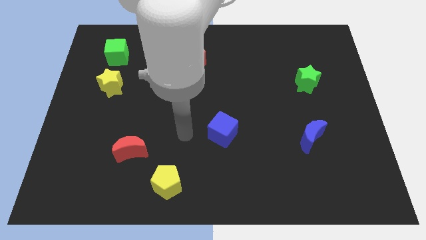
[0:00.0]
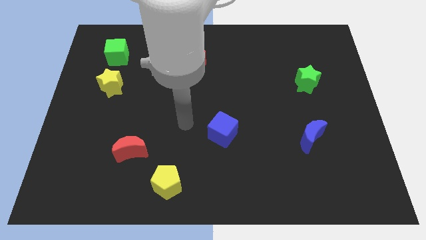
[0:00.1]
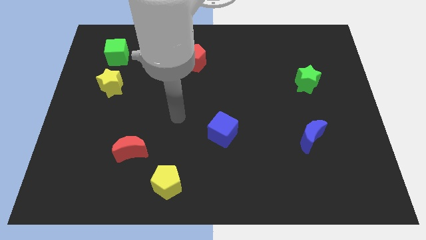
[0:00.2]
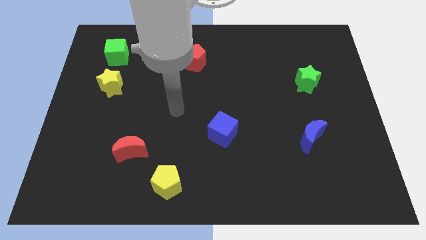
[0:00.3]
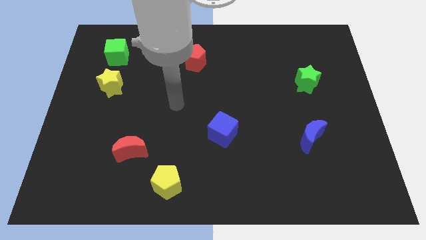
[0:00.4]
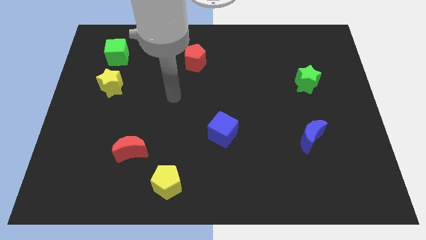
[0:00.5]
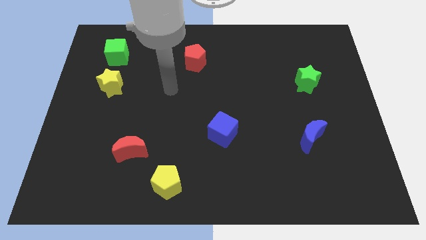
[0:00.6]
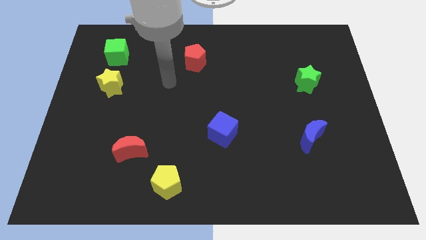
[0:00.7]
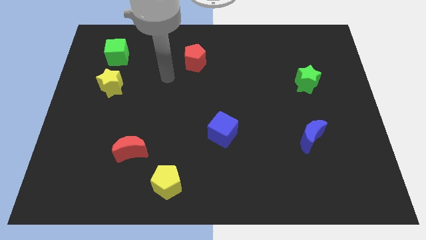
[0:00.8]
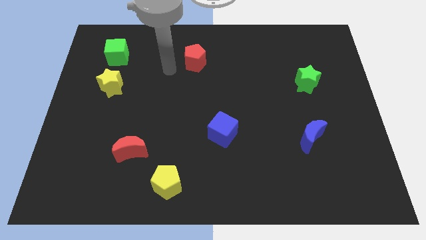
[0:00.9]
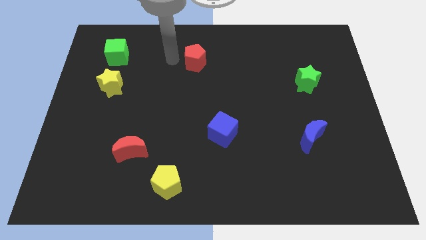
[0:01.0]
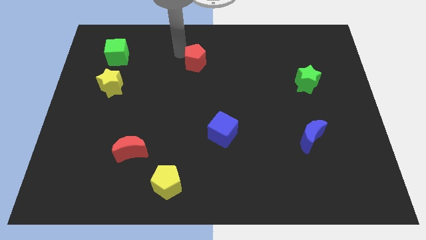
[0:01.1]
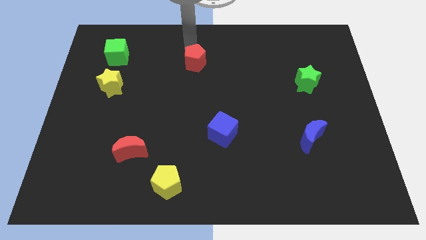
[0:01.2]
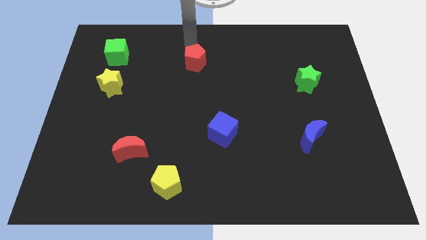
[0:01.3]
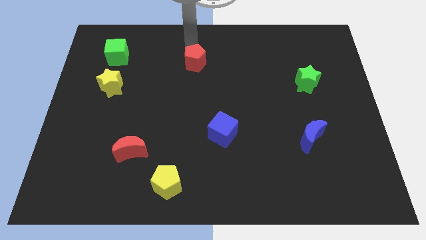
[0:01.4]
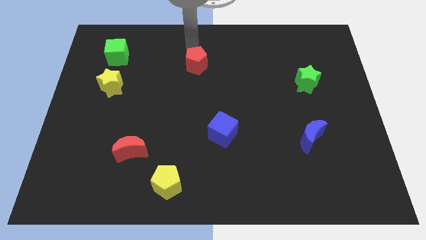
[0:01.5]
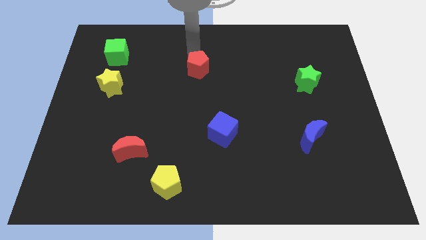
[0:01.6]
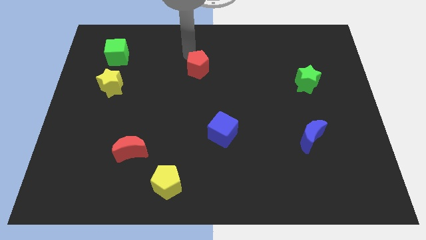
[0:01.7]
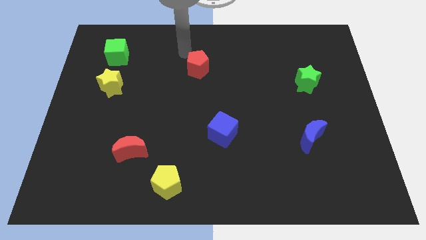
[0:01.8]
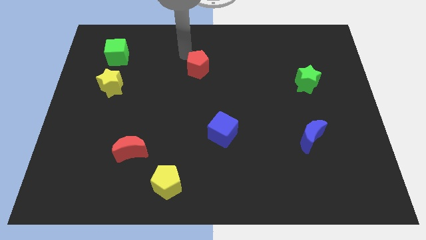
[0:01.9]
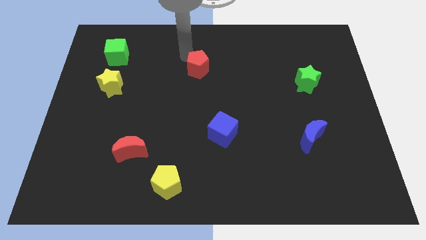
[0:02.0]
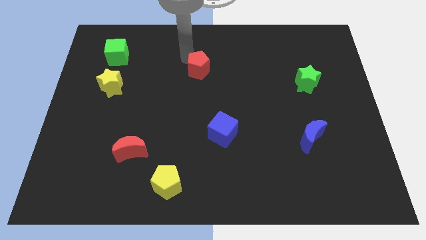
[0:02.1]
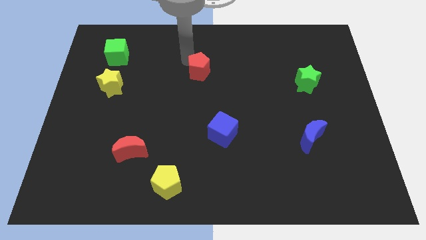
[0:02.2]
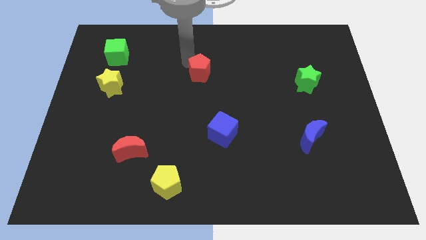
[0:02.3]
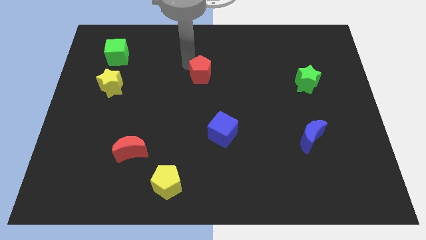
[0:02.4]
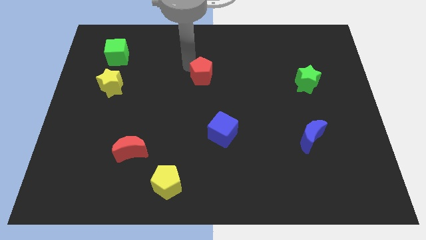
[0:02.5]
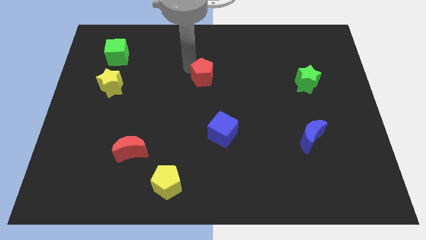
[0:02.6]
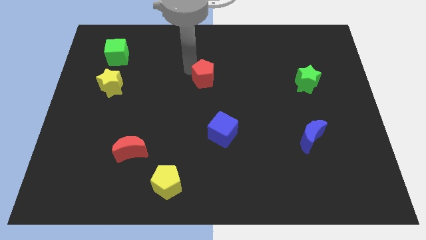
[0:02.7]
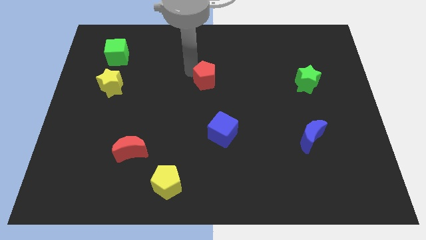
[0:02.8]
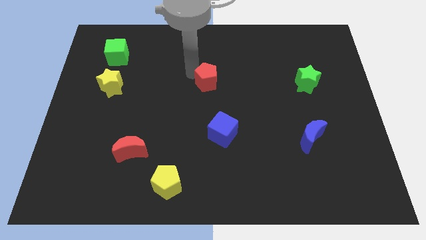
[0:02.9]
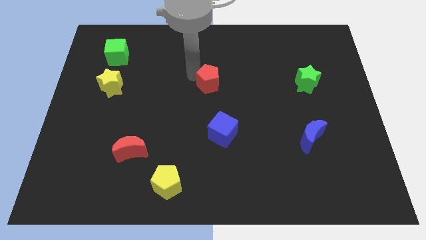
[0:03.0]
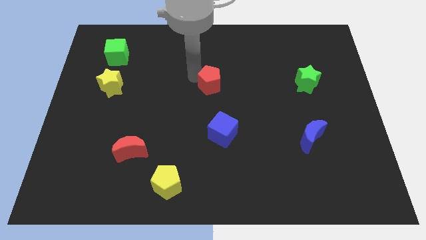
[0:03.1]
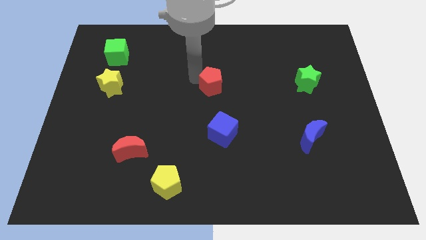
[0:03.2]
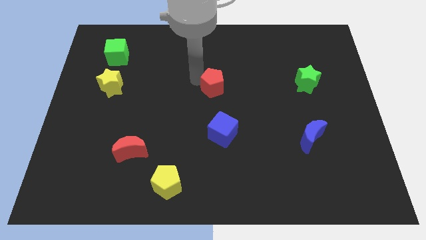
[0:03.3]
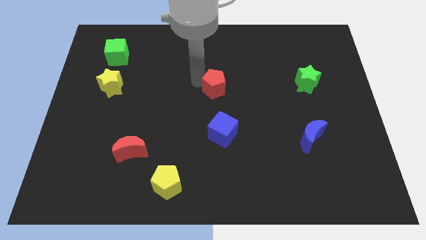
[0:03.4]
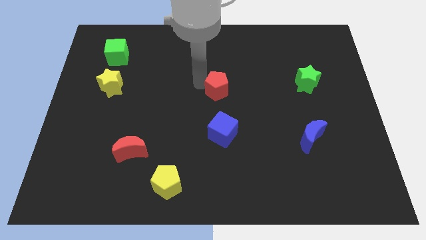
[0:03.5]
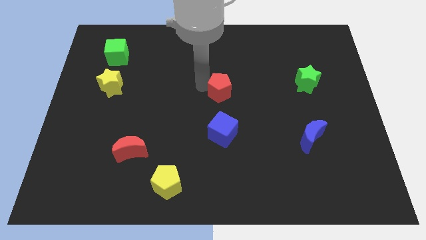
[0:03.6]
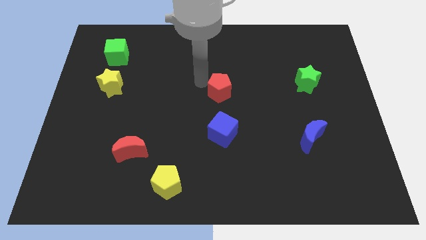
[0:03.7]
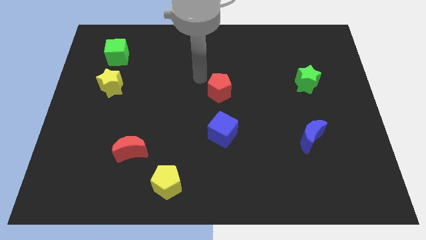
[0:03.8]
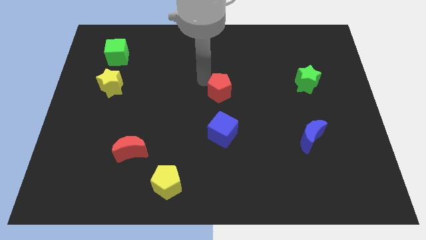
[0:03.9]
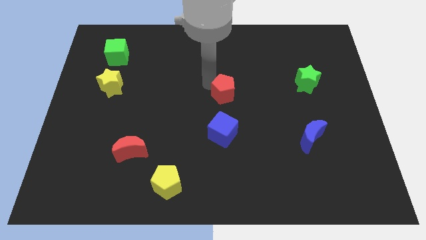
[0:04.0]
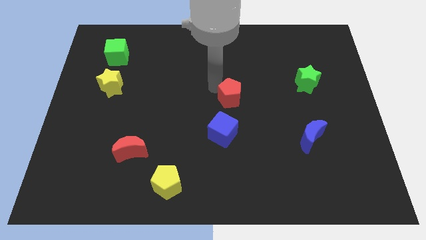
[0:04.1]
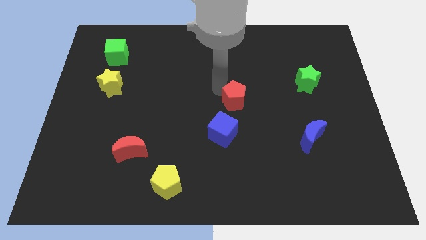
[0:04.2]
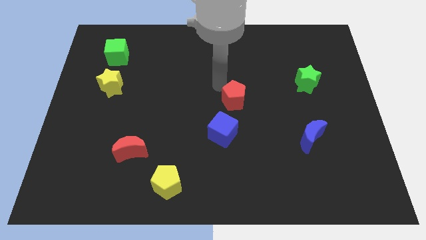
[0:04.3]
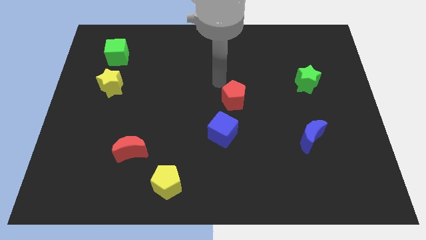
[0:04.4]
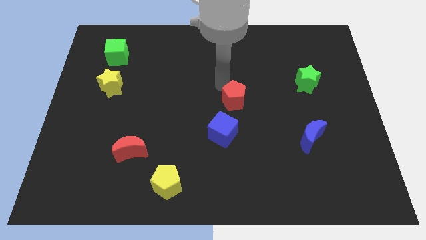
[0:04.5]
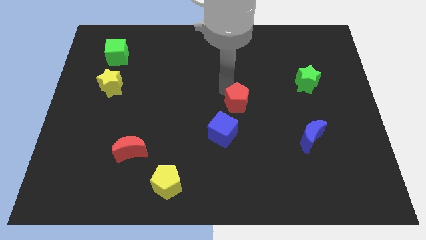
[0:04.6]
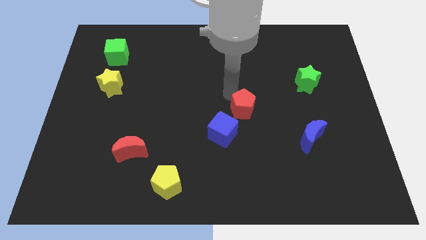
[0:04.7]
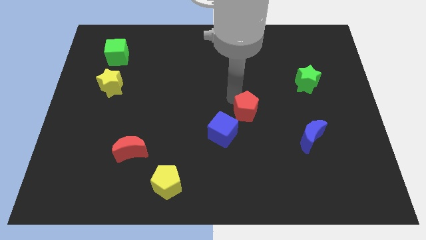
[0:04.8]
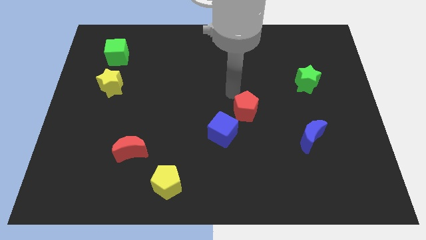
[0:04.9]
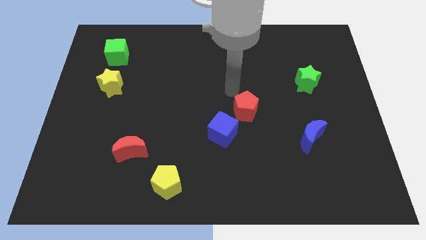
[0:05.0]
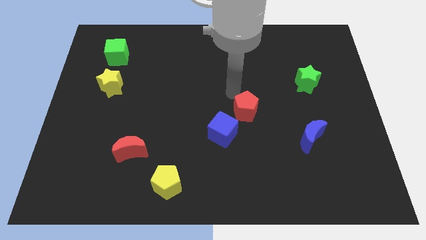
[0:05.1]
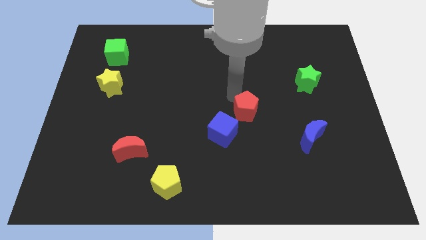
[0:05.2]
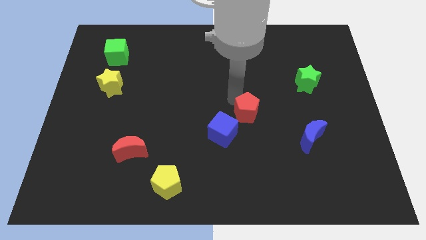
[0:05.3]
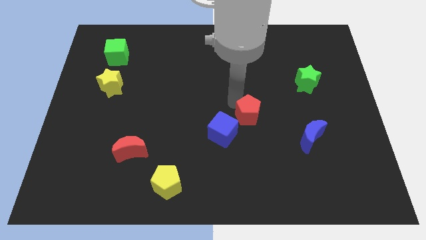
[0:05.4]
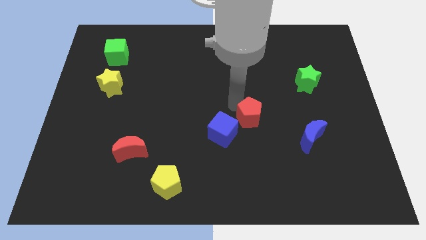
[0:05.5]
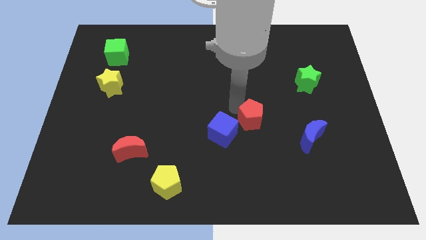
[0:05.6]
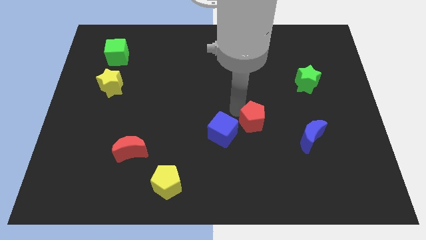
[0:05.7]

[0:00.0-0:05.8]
put the red pentagon just left of the blue moon

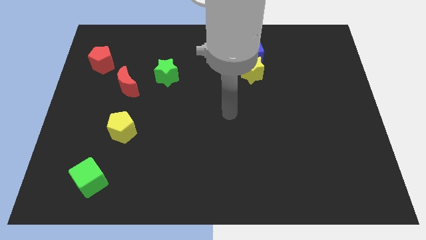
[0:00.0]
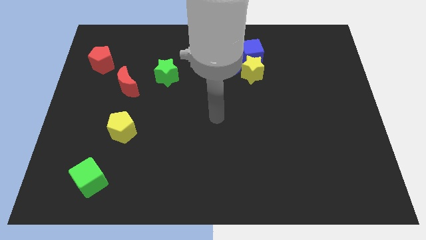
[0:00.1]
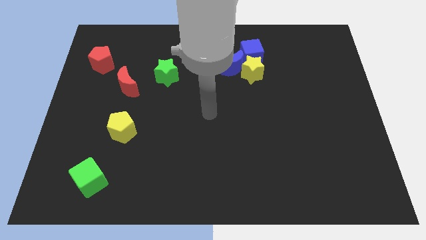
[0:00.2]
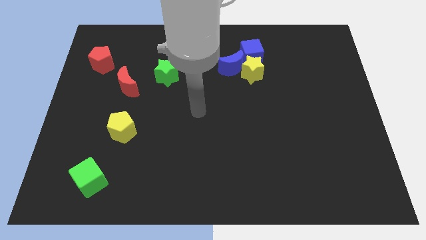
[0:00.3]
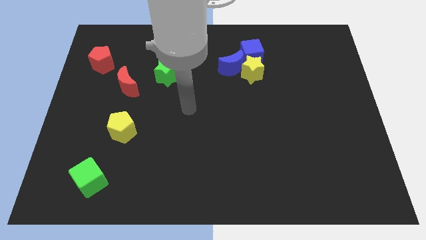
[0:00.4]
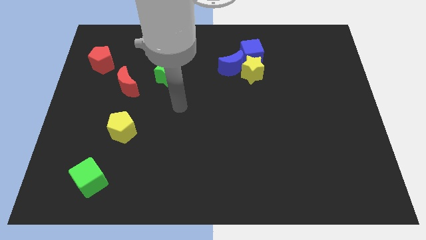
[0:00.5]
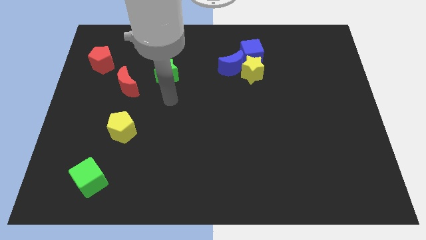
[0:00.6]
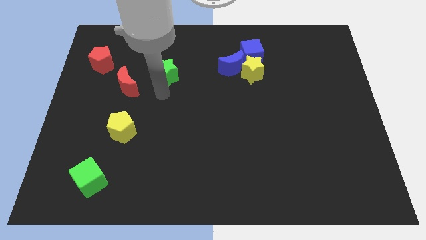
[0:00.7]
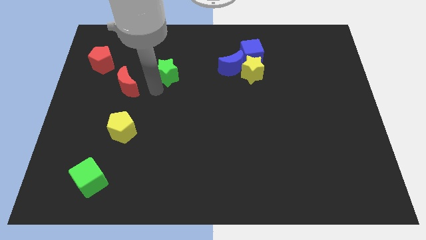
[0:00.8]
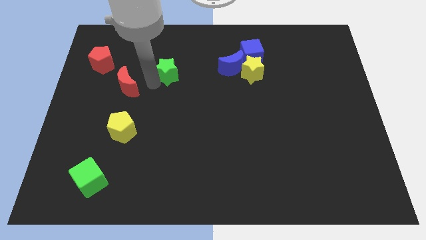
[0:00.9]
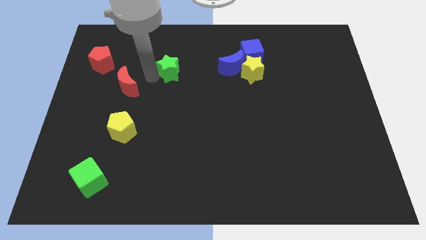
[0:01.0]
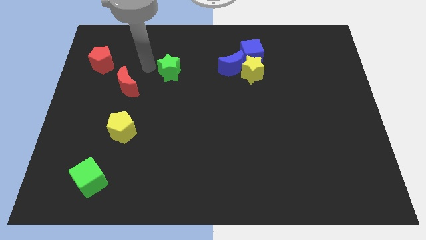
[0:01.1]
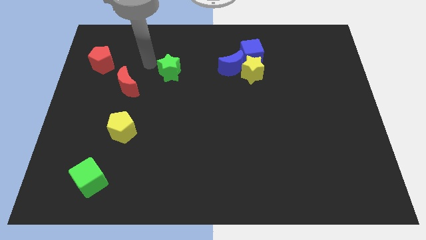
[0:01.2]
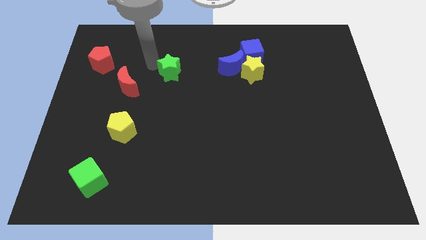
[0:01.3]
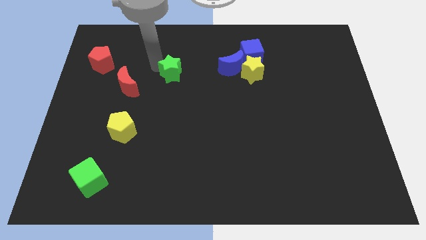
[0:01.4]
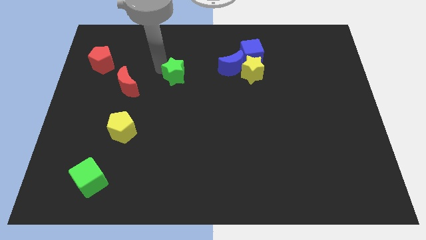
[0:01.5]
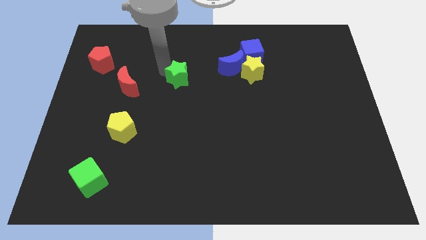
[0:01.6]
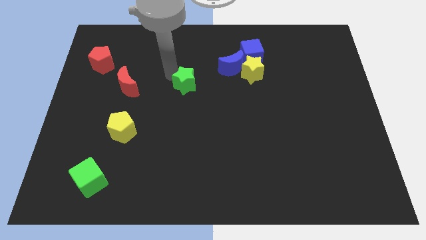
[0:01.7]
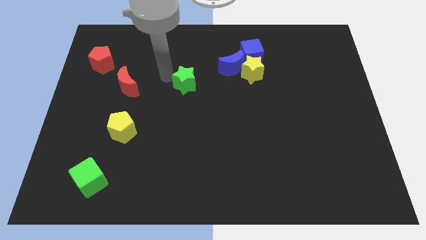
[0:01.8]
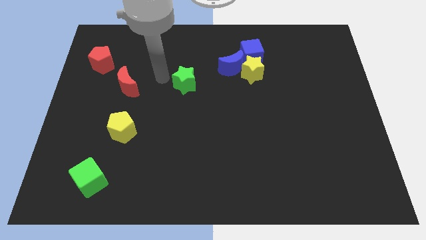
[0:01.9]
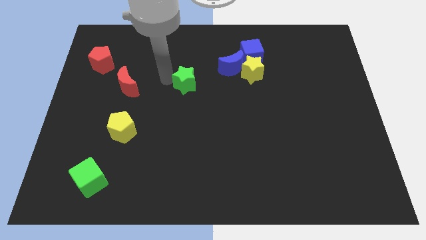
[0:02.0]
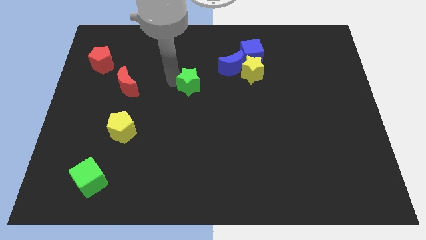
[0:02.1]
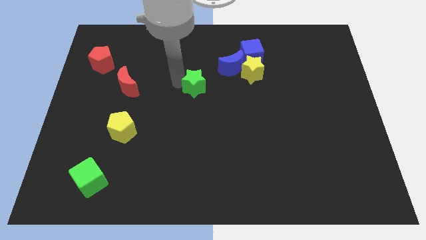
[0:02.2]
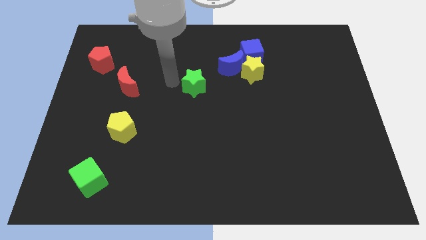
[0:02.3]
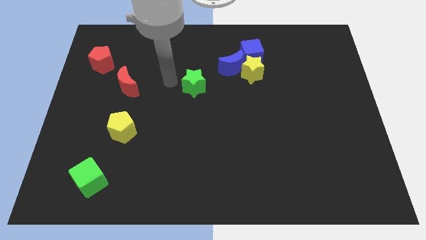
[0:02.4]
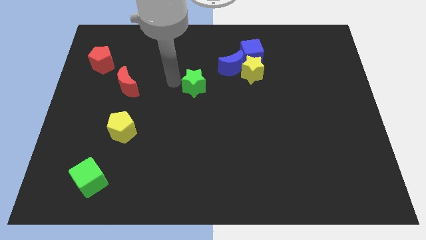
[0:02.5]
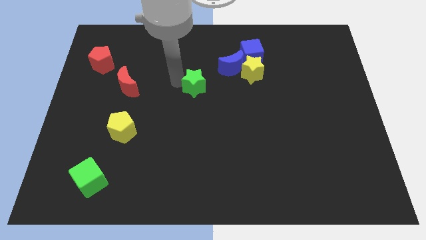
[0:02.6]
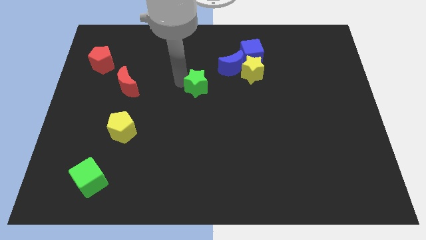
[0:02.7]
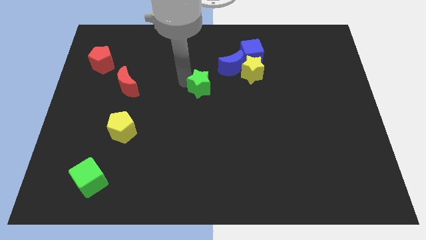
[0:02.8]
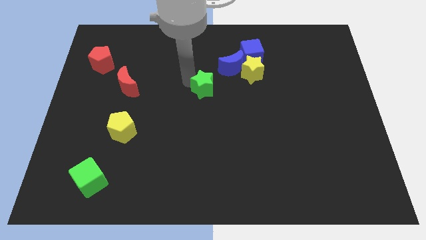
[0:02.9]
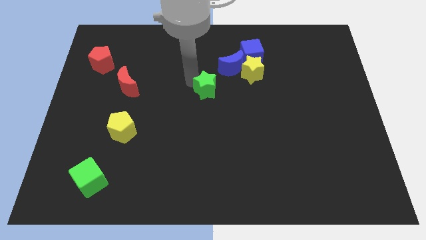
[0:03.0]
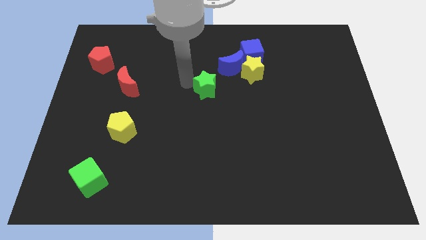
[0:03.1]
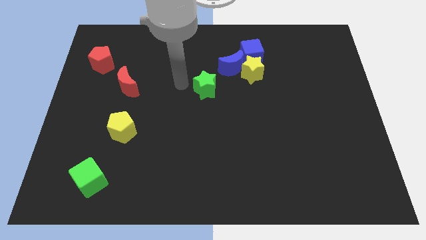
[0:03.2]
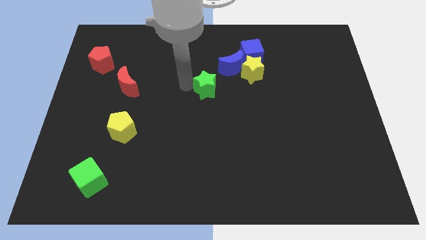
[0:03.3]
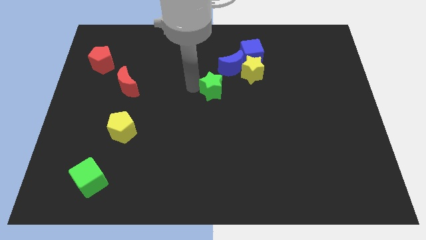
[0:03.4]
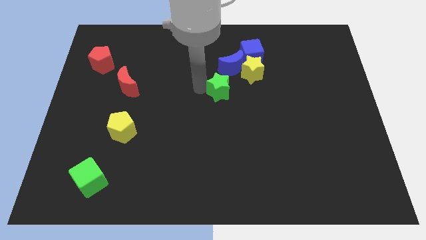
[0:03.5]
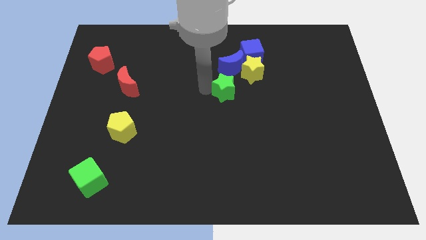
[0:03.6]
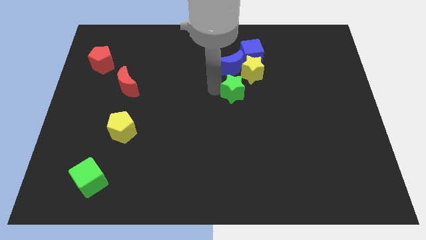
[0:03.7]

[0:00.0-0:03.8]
push the green star to the bottom of the yellow star
